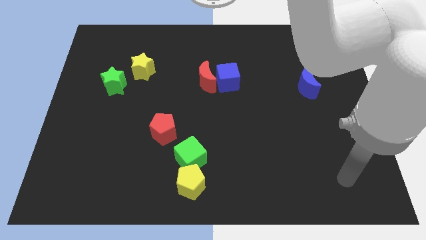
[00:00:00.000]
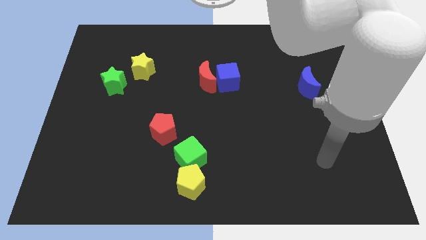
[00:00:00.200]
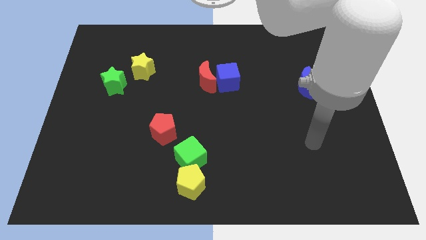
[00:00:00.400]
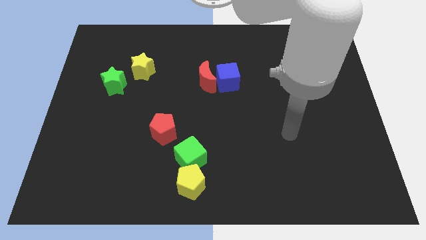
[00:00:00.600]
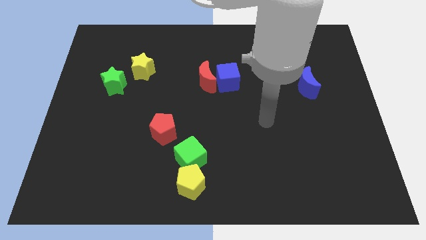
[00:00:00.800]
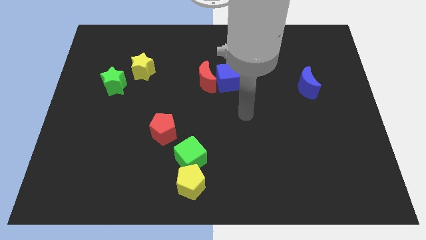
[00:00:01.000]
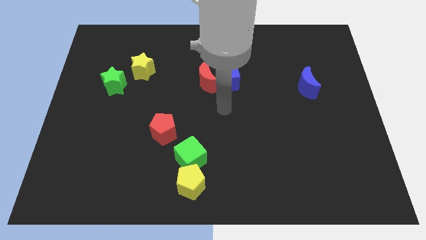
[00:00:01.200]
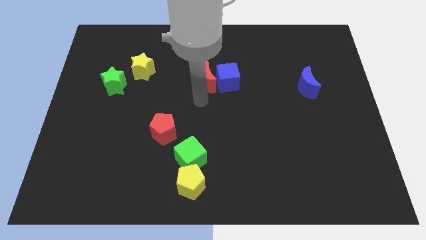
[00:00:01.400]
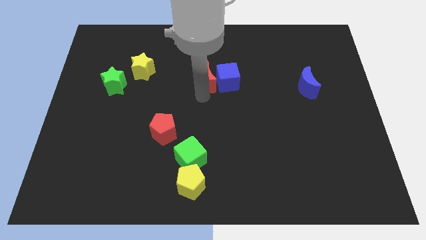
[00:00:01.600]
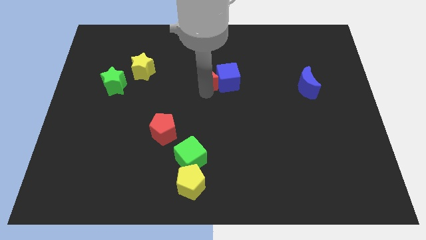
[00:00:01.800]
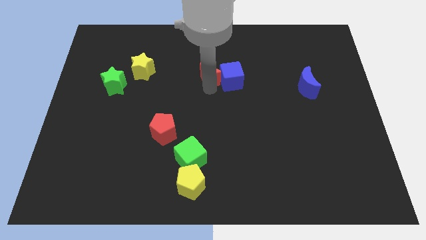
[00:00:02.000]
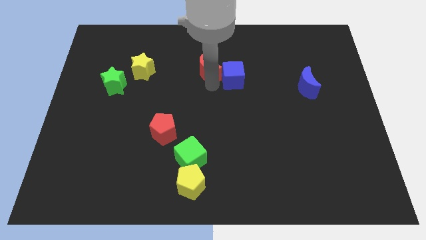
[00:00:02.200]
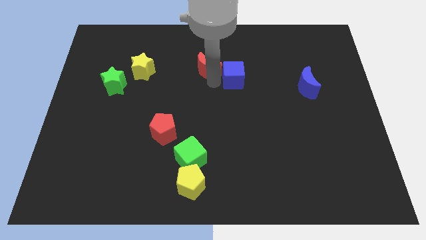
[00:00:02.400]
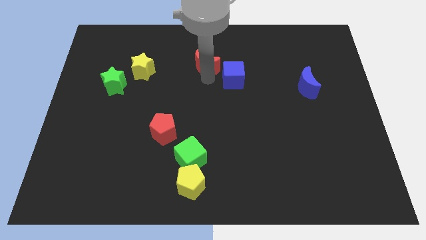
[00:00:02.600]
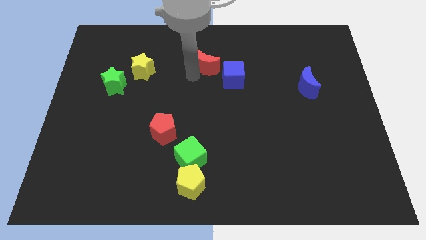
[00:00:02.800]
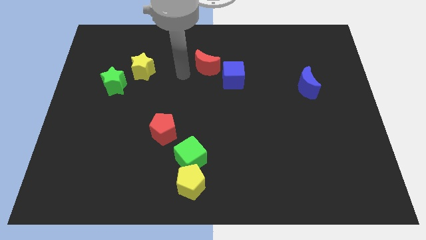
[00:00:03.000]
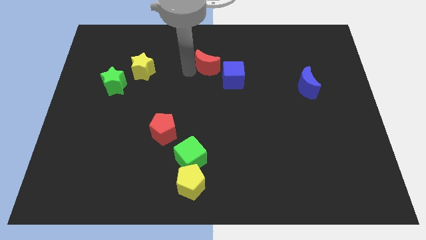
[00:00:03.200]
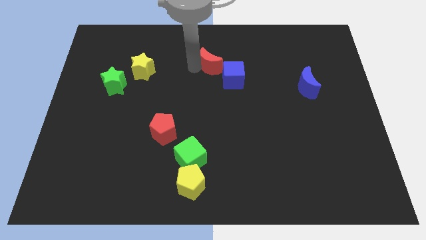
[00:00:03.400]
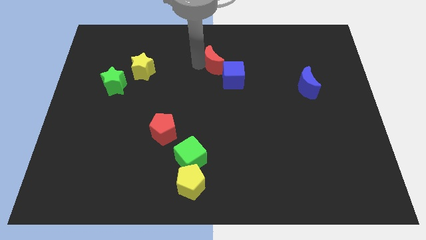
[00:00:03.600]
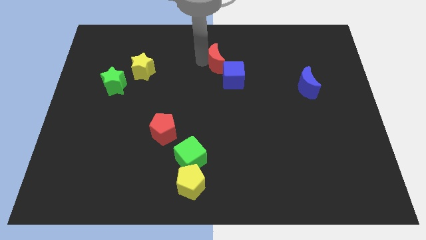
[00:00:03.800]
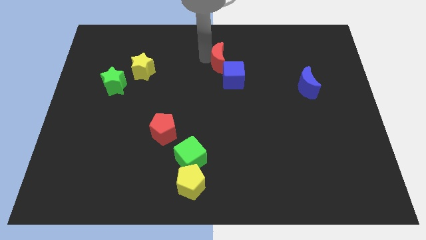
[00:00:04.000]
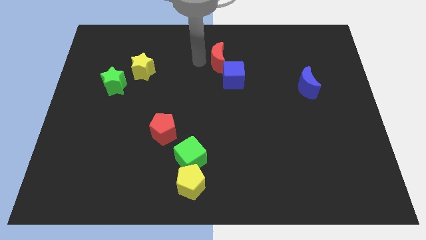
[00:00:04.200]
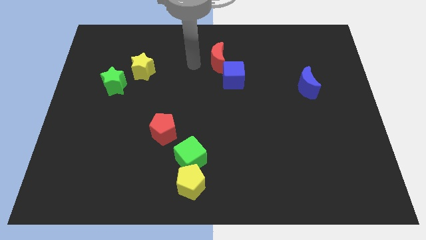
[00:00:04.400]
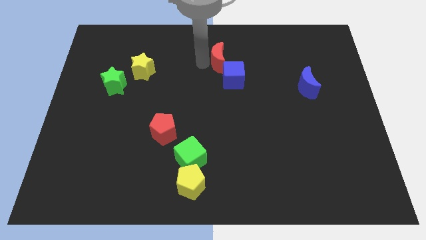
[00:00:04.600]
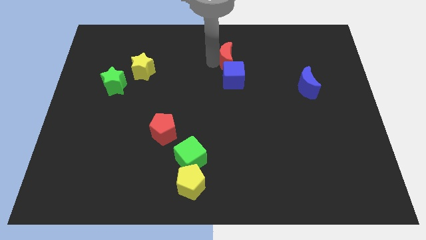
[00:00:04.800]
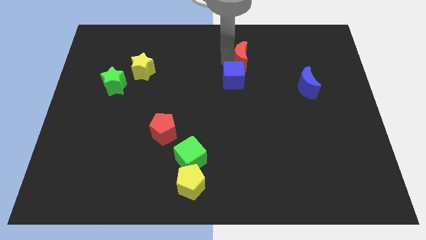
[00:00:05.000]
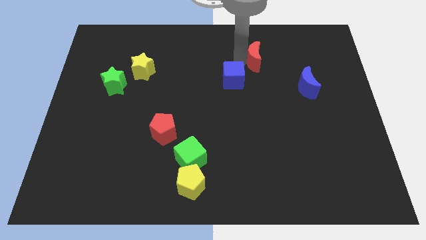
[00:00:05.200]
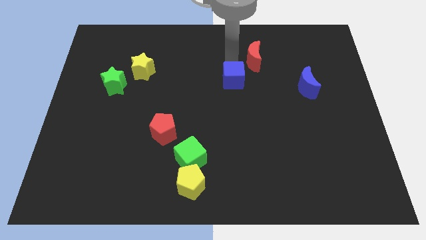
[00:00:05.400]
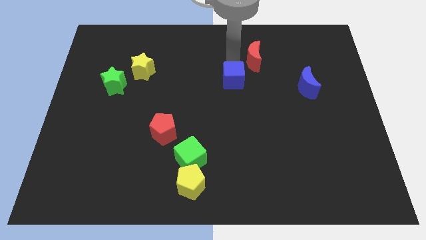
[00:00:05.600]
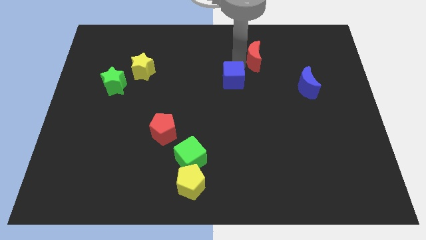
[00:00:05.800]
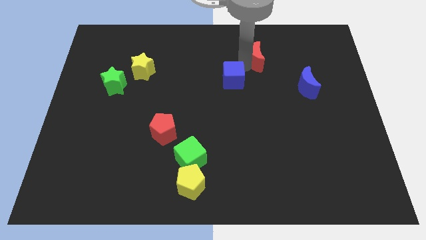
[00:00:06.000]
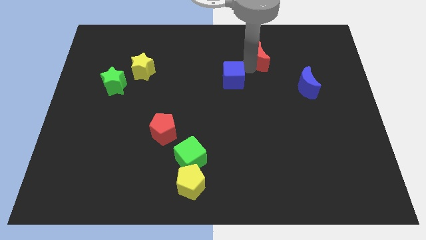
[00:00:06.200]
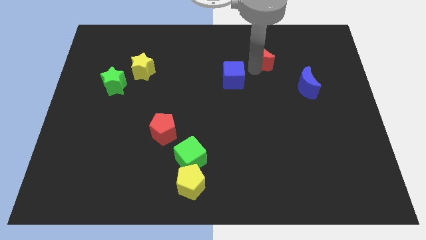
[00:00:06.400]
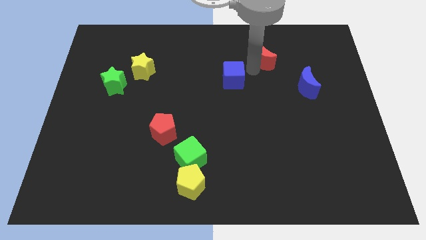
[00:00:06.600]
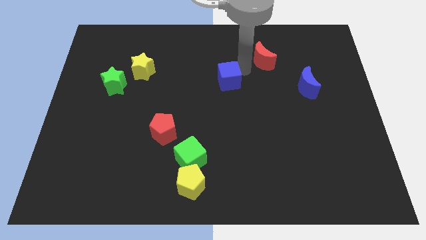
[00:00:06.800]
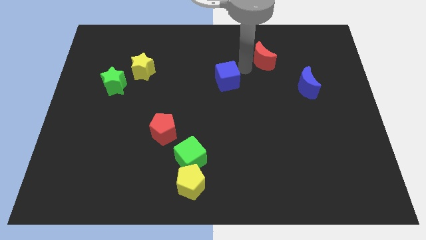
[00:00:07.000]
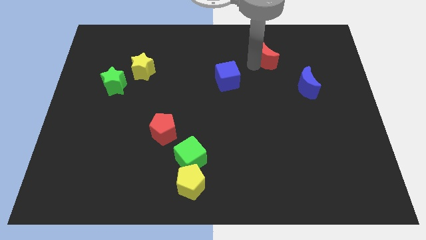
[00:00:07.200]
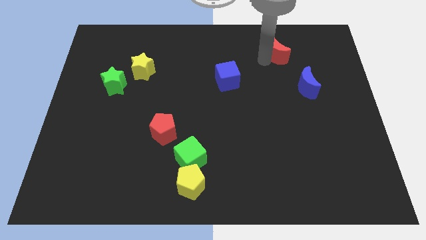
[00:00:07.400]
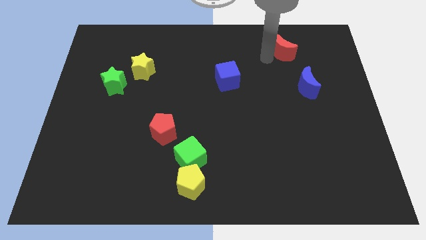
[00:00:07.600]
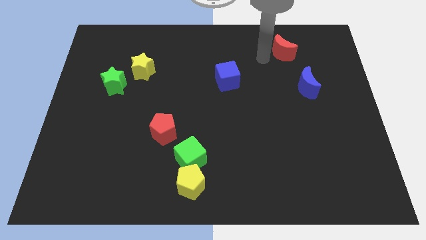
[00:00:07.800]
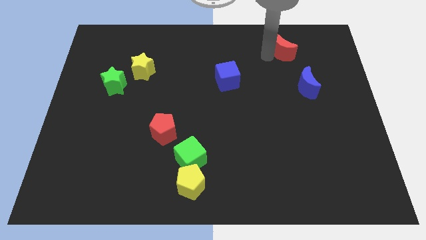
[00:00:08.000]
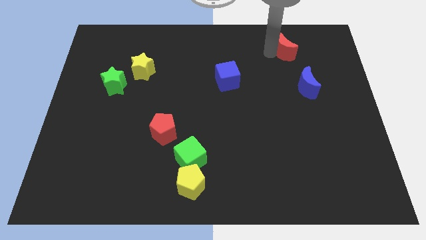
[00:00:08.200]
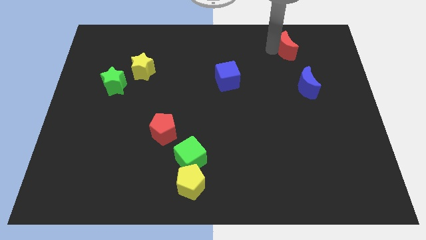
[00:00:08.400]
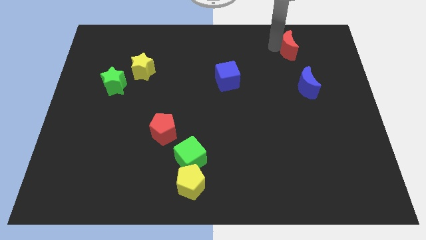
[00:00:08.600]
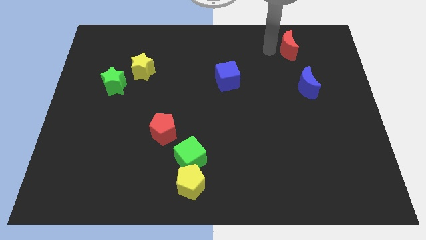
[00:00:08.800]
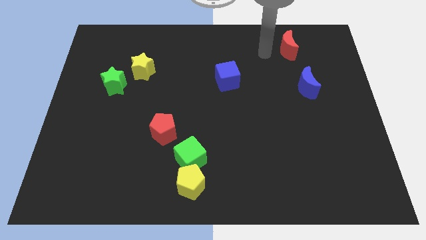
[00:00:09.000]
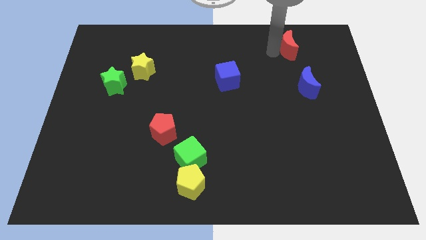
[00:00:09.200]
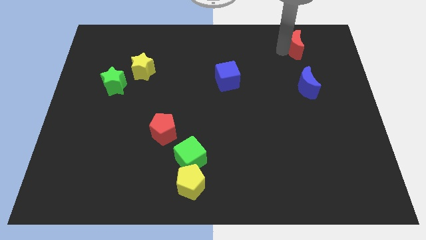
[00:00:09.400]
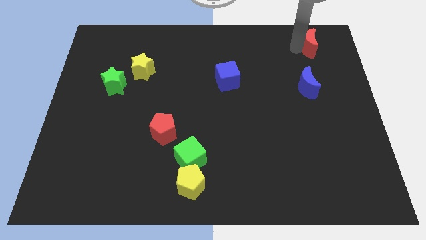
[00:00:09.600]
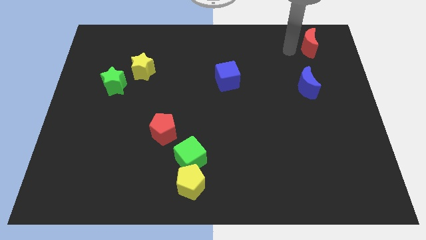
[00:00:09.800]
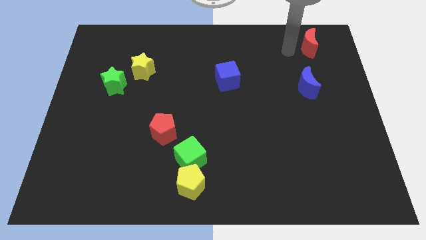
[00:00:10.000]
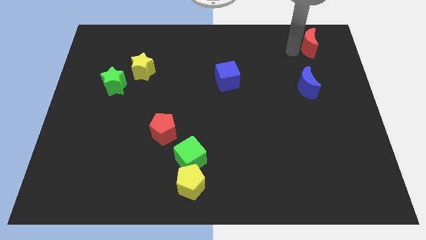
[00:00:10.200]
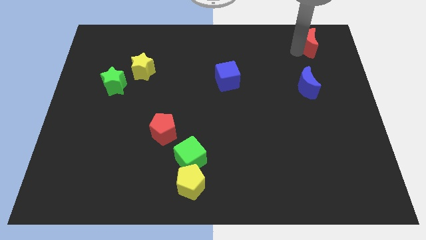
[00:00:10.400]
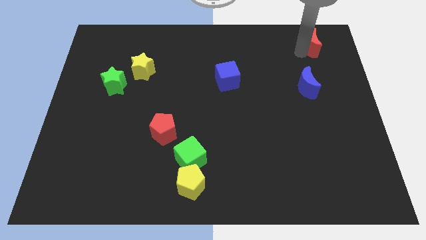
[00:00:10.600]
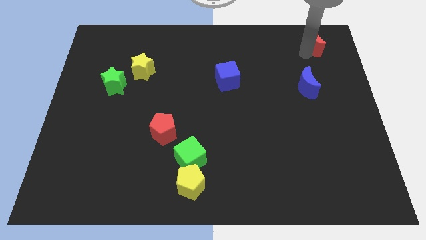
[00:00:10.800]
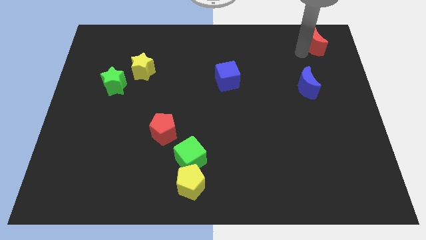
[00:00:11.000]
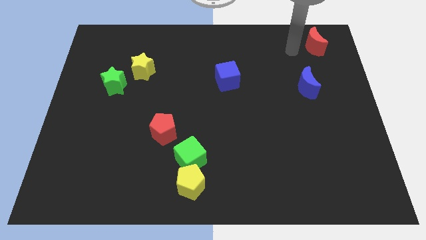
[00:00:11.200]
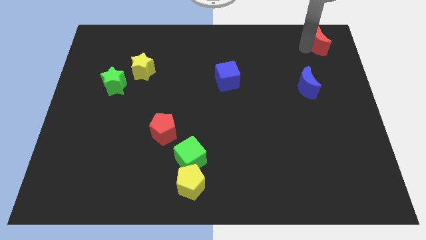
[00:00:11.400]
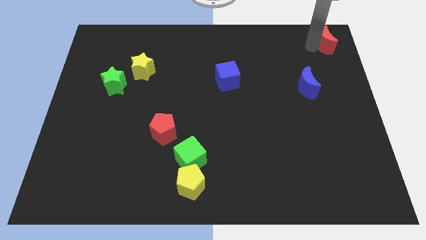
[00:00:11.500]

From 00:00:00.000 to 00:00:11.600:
move the red moon to the top right corner
